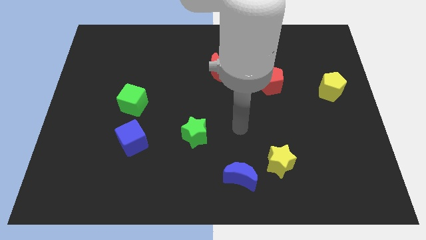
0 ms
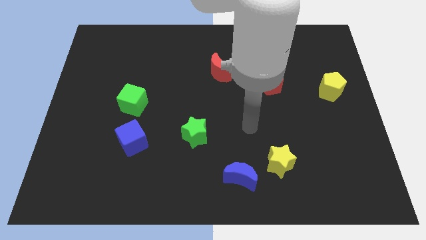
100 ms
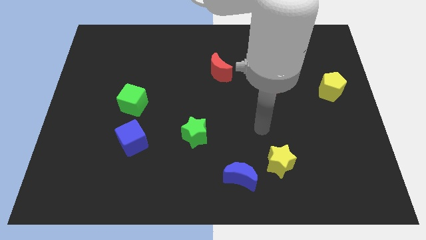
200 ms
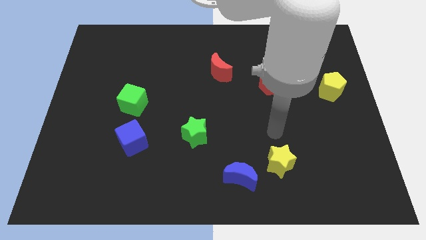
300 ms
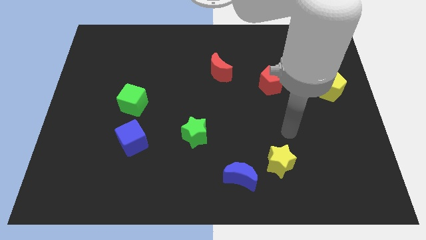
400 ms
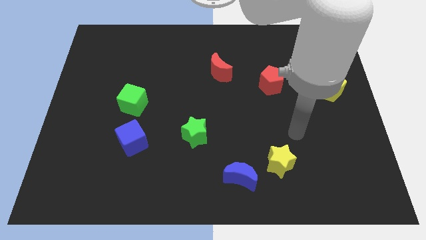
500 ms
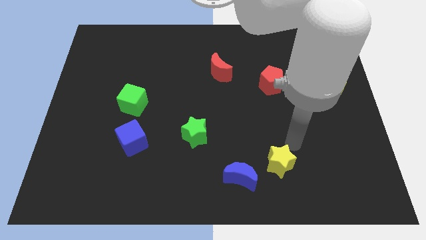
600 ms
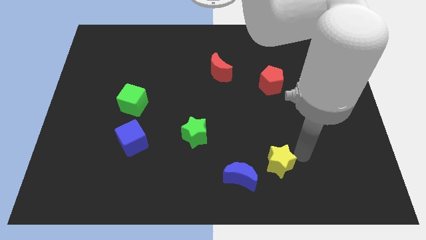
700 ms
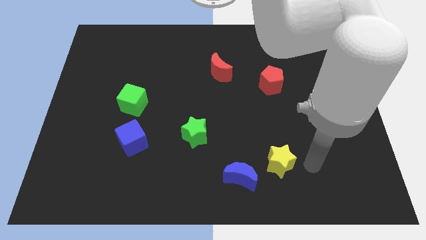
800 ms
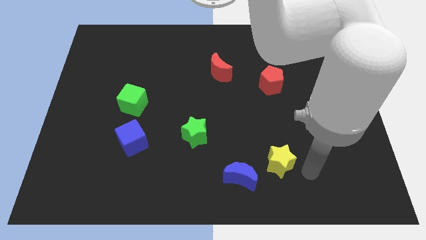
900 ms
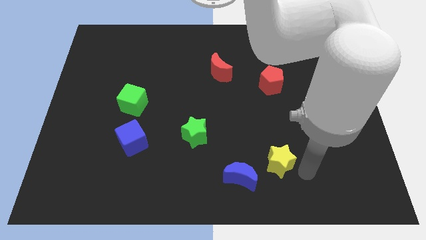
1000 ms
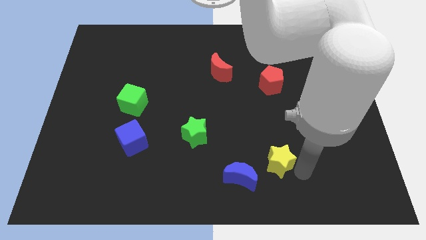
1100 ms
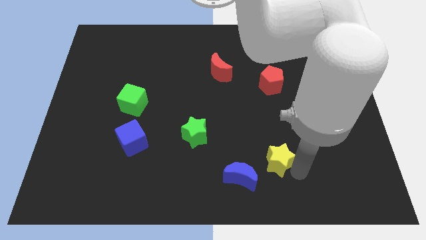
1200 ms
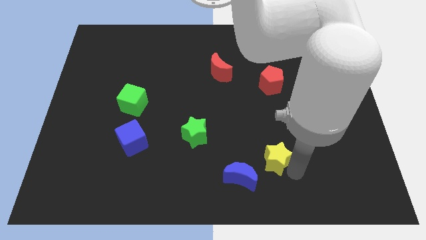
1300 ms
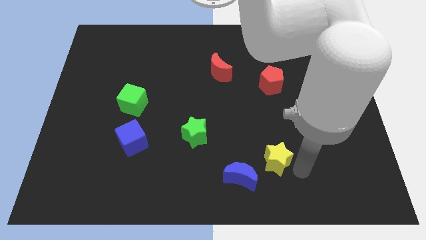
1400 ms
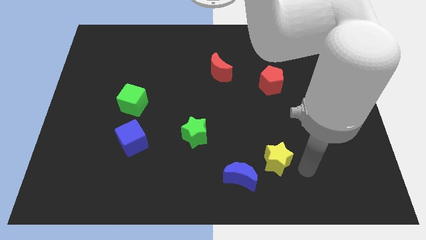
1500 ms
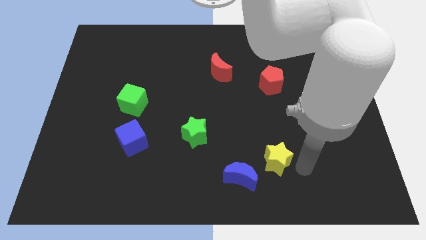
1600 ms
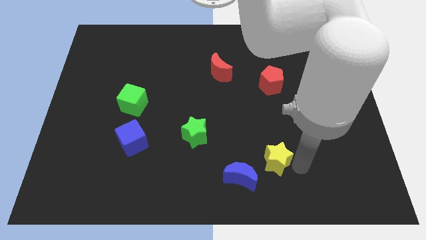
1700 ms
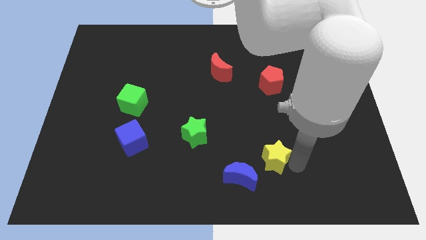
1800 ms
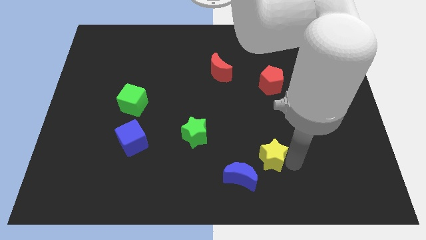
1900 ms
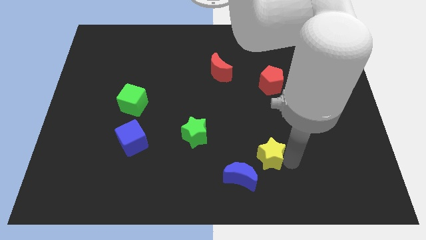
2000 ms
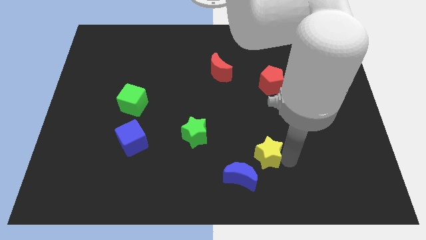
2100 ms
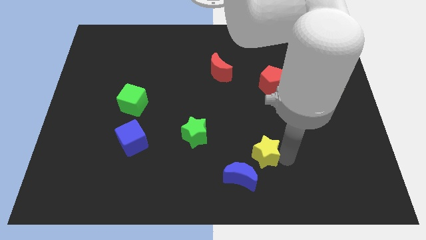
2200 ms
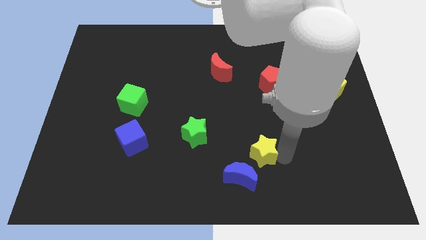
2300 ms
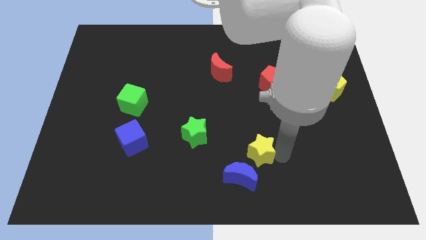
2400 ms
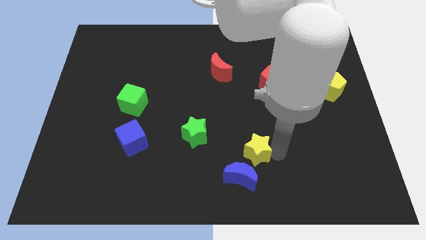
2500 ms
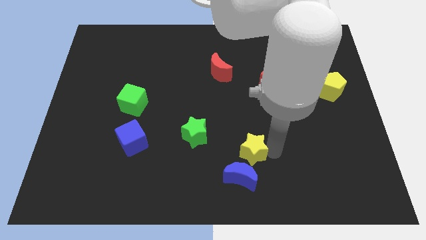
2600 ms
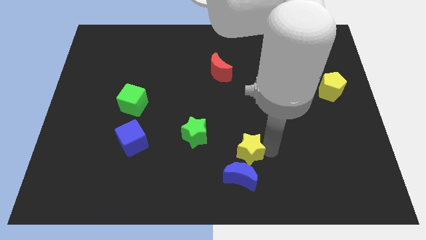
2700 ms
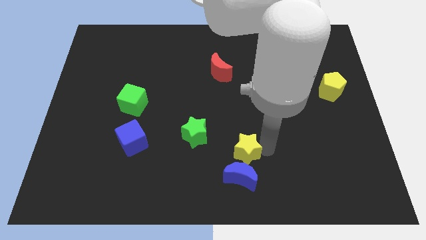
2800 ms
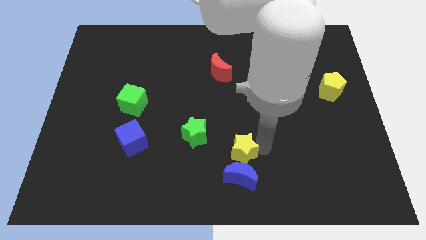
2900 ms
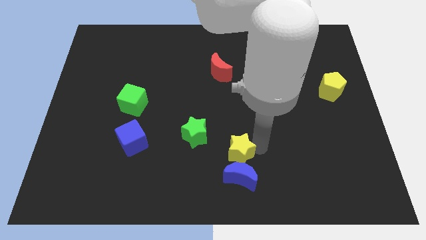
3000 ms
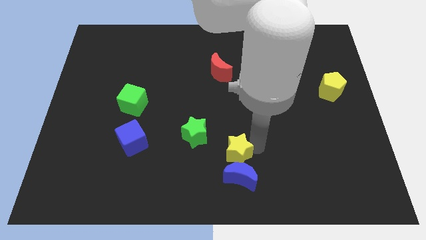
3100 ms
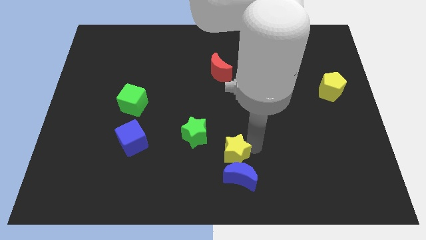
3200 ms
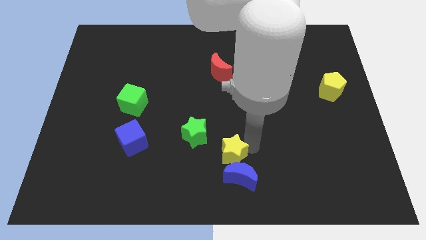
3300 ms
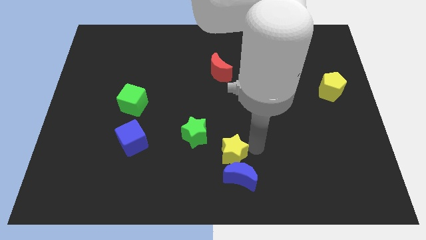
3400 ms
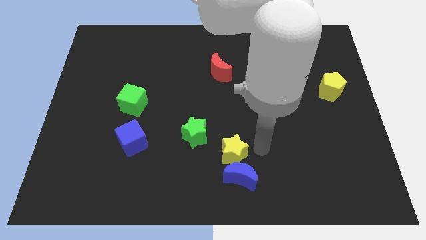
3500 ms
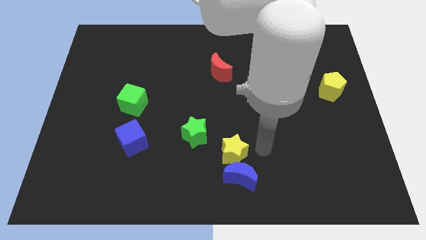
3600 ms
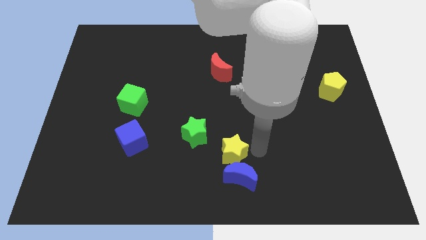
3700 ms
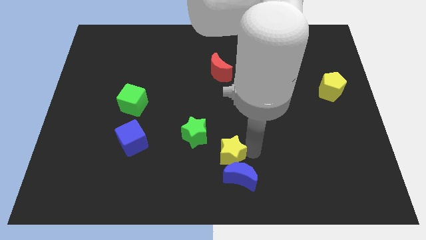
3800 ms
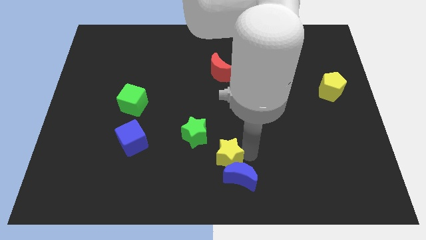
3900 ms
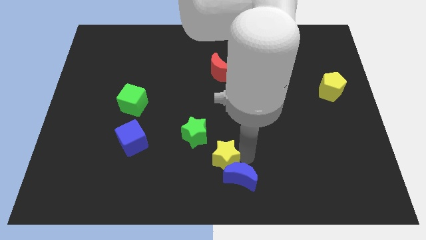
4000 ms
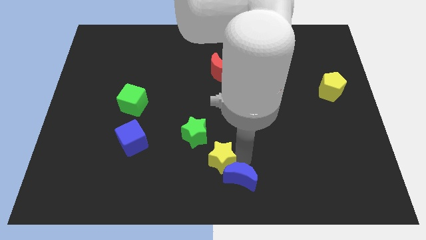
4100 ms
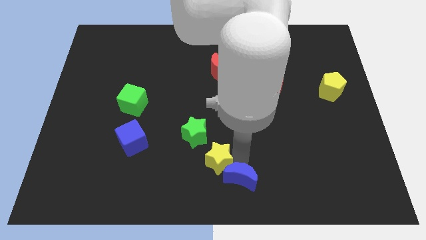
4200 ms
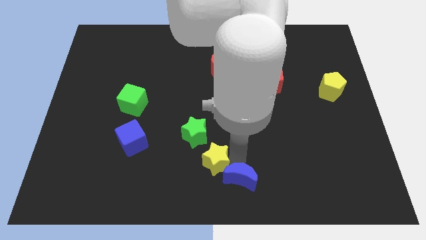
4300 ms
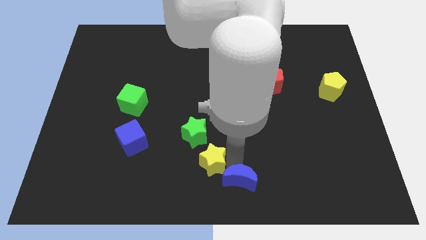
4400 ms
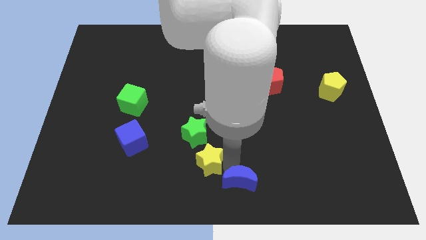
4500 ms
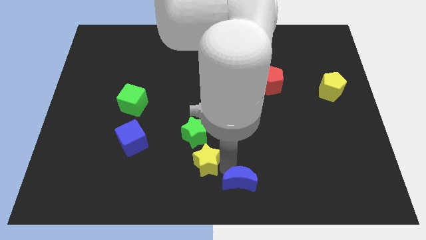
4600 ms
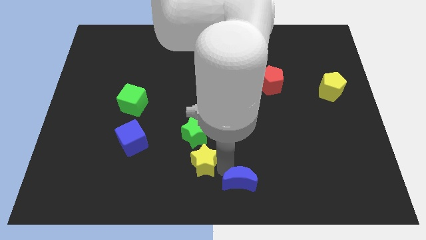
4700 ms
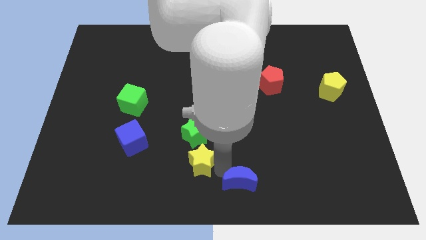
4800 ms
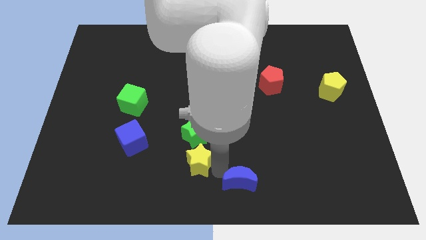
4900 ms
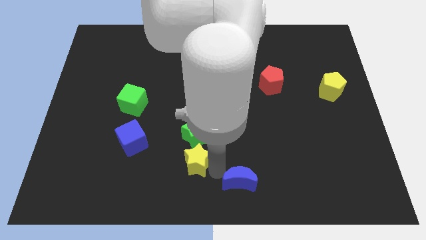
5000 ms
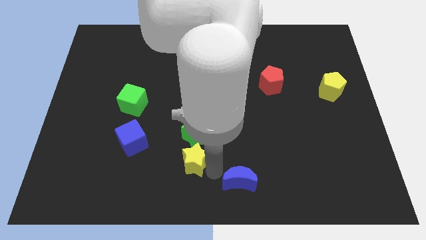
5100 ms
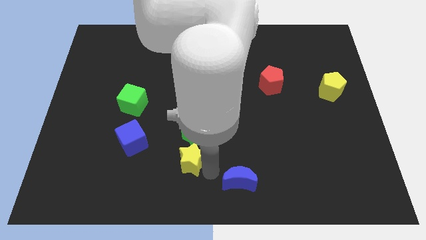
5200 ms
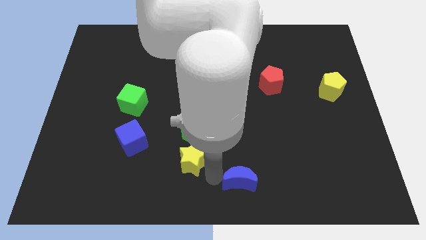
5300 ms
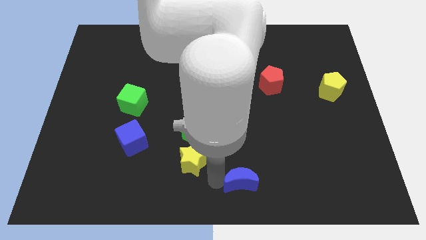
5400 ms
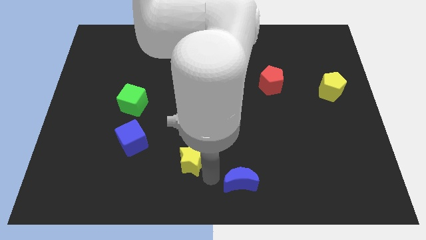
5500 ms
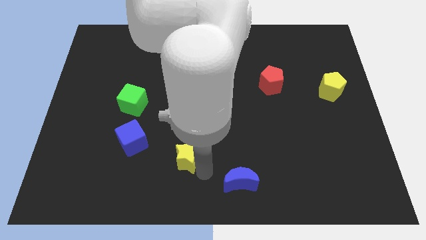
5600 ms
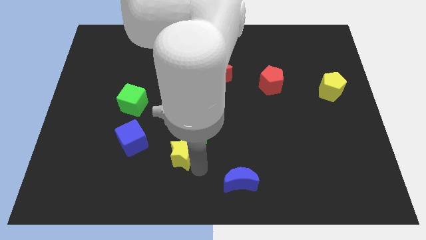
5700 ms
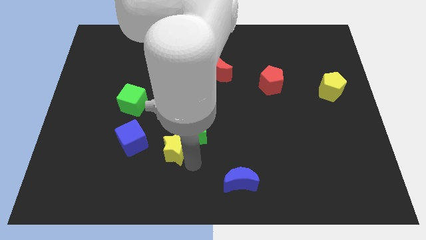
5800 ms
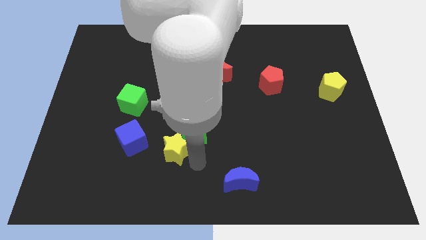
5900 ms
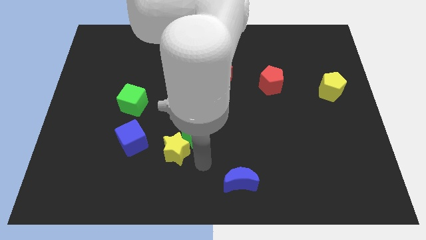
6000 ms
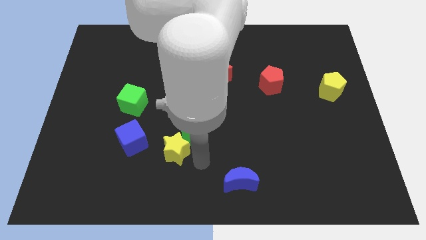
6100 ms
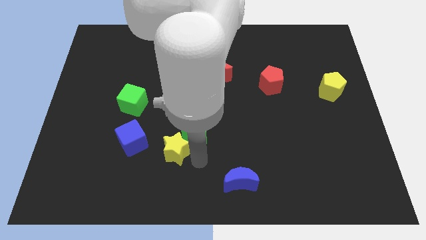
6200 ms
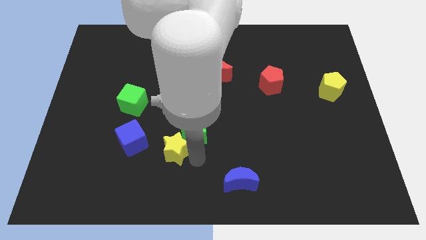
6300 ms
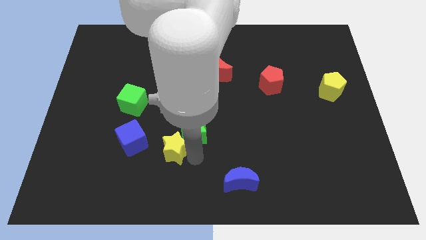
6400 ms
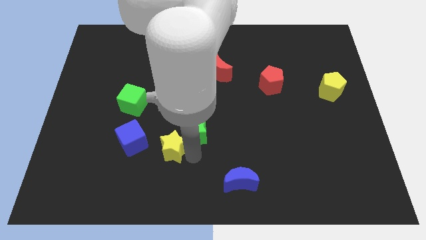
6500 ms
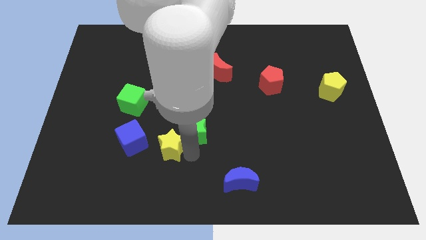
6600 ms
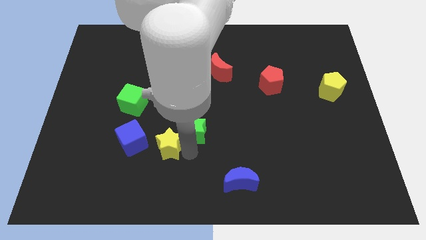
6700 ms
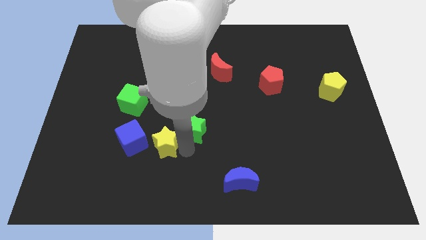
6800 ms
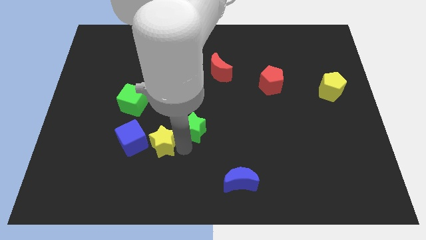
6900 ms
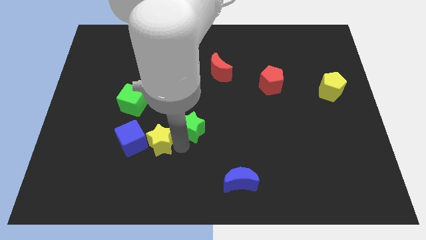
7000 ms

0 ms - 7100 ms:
put the yellow star towards the blue cube

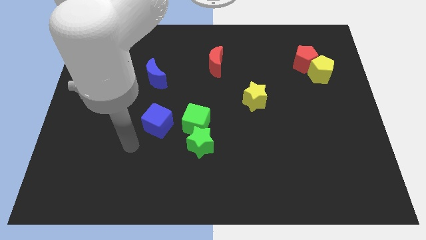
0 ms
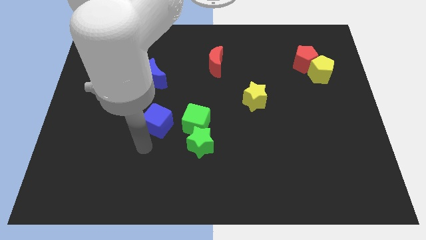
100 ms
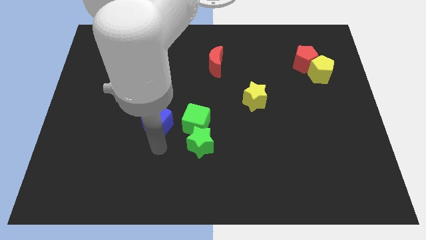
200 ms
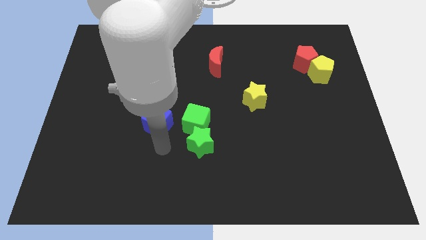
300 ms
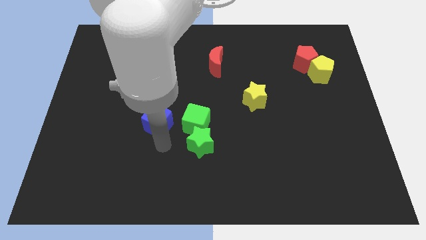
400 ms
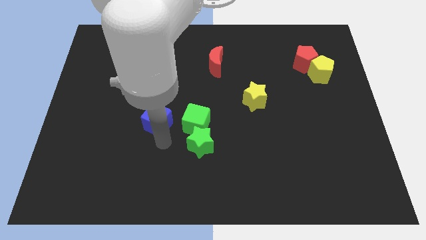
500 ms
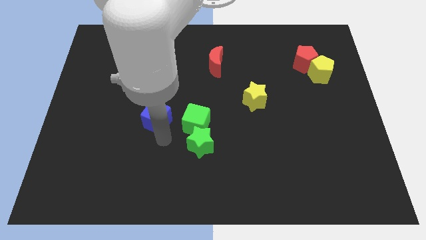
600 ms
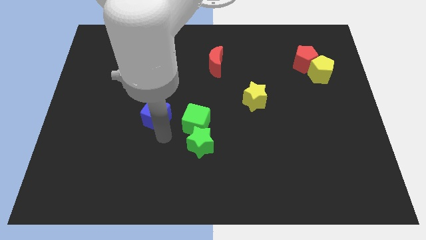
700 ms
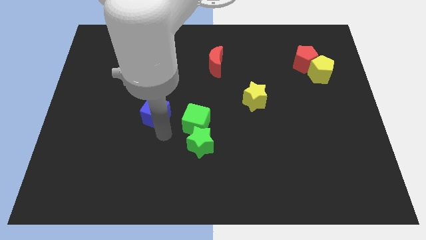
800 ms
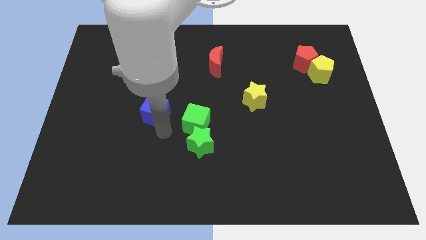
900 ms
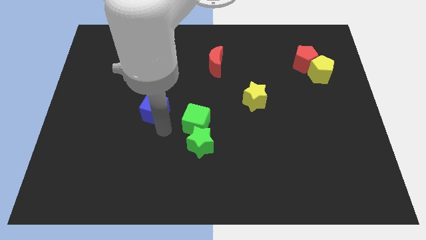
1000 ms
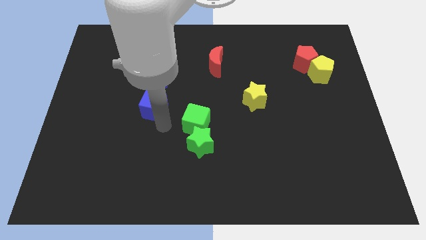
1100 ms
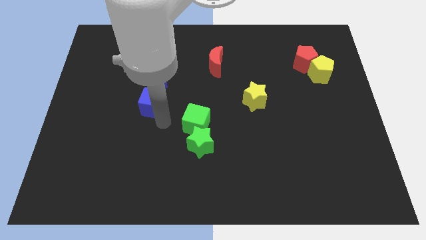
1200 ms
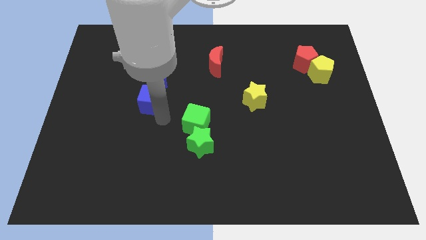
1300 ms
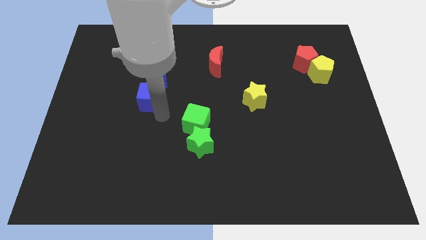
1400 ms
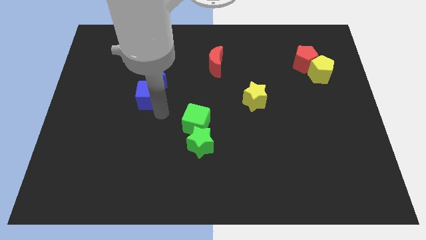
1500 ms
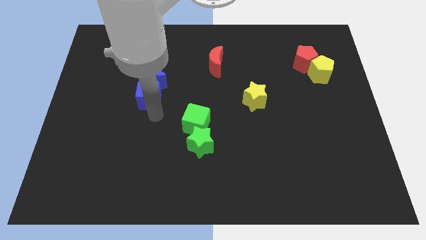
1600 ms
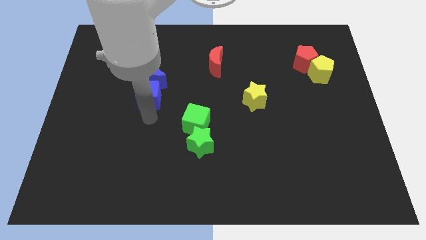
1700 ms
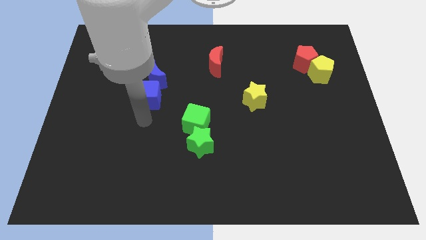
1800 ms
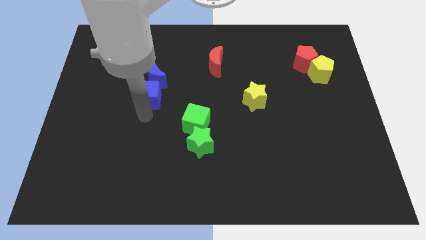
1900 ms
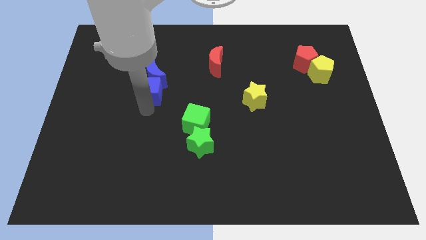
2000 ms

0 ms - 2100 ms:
put the blue cube close to the blue moon
